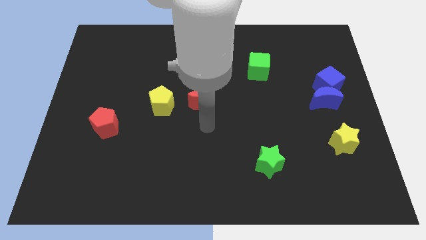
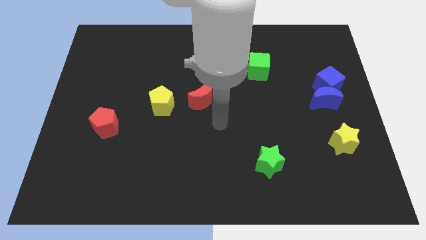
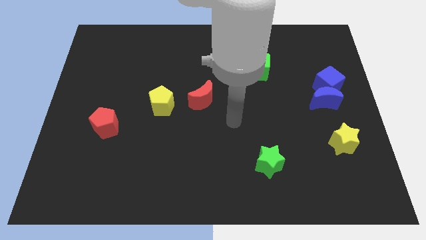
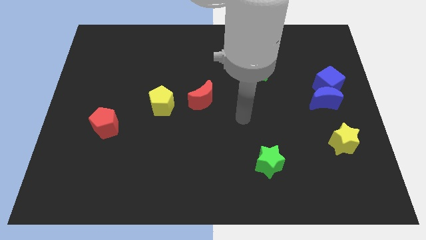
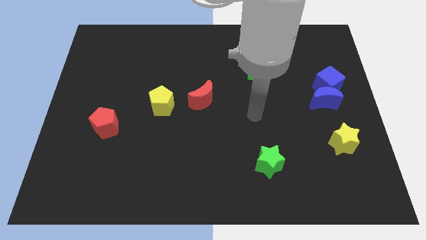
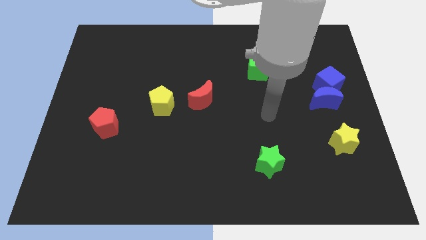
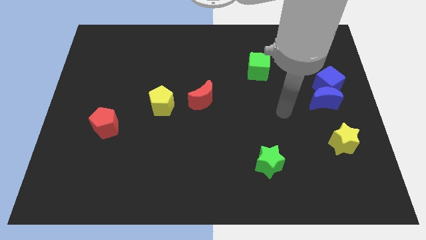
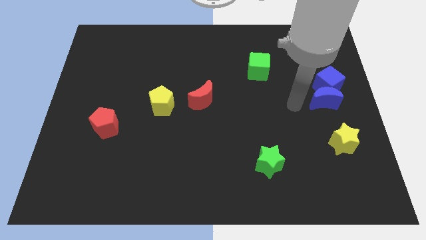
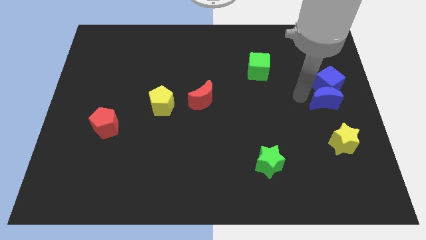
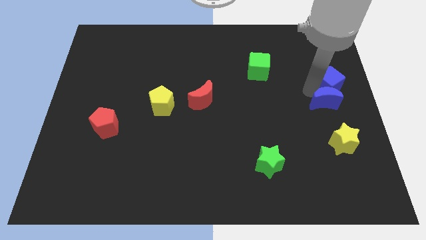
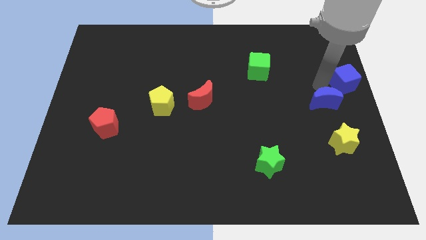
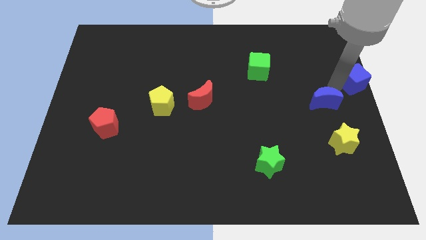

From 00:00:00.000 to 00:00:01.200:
separate the blue moon from the blue cube

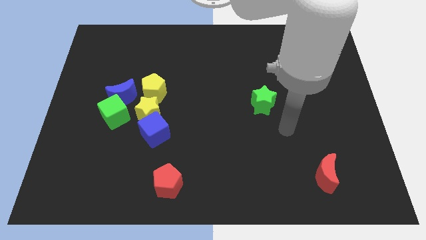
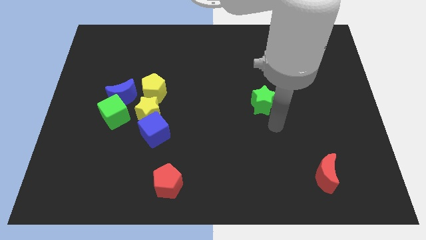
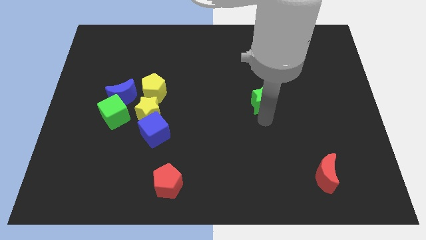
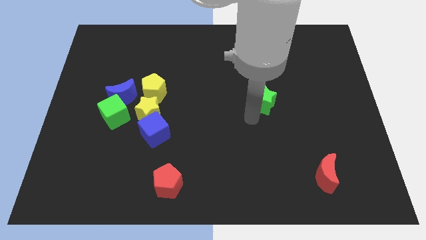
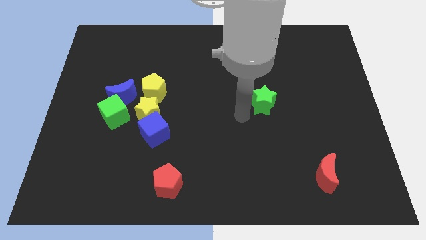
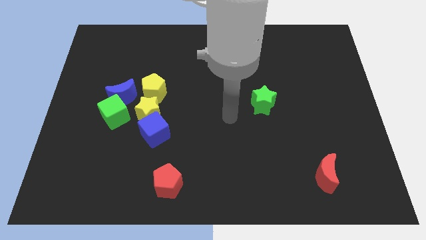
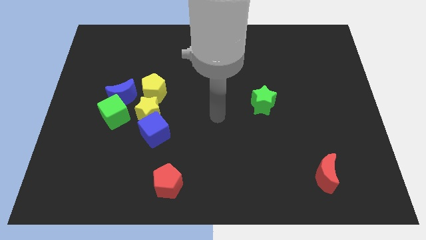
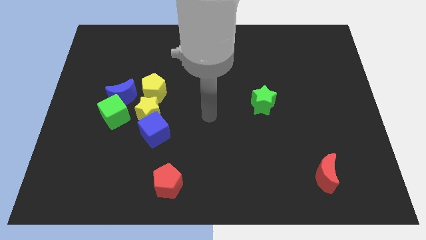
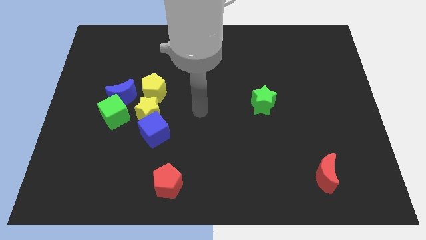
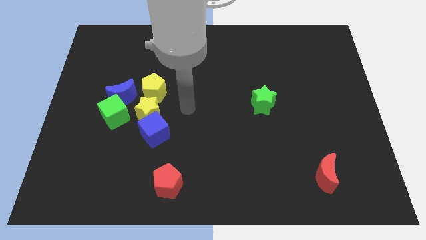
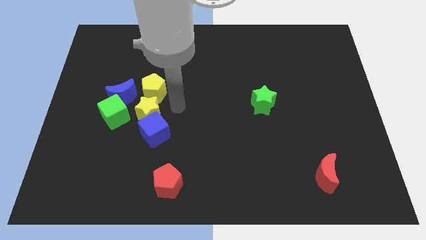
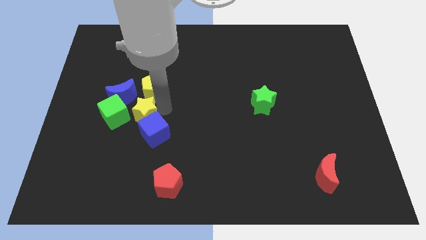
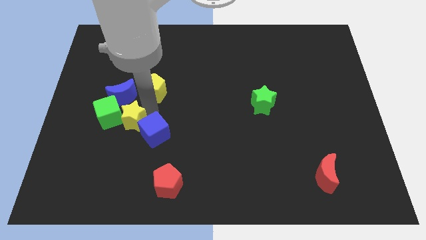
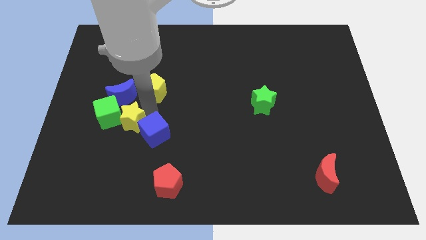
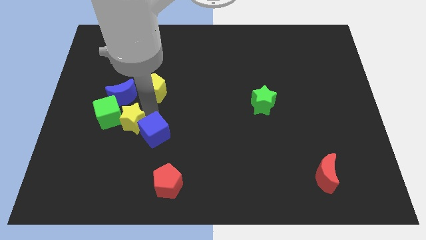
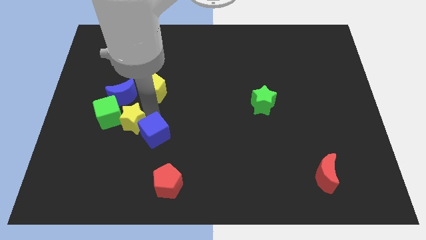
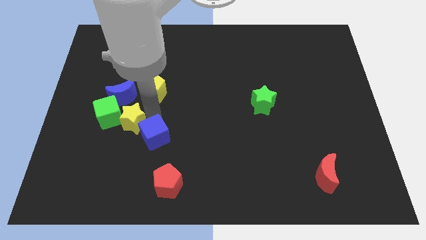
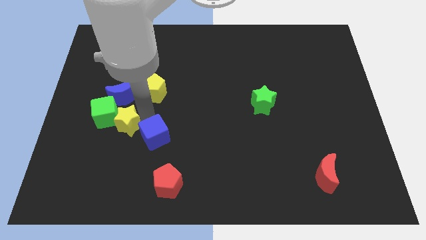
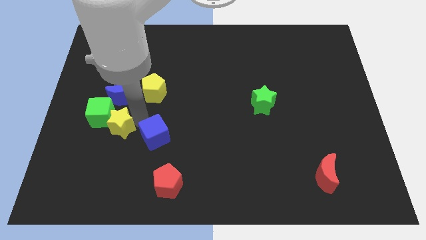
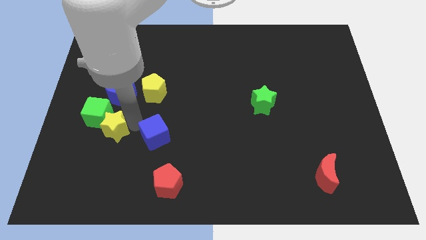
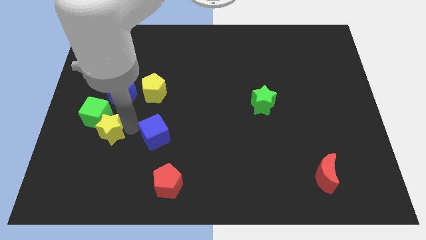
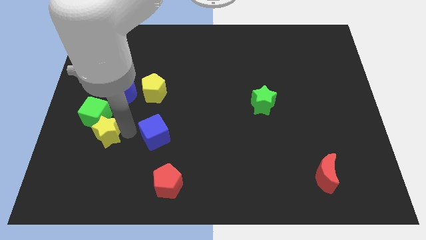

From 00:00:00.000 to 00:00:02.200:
move the blue cube away from the yellow star

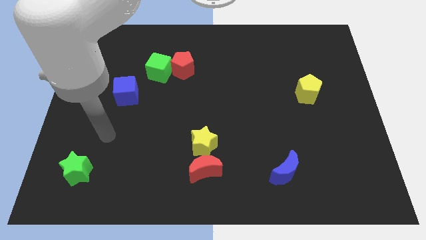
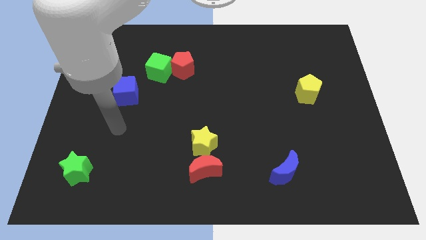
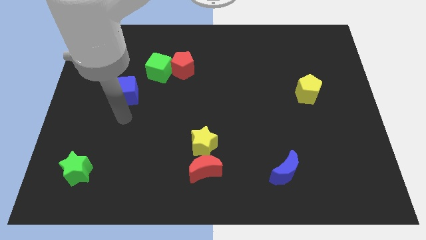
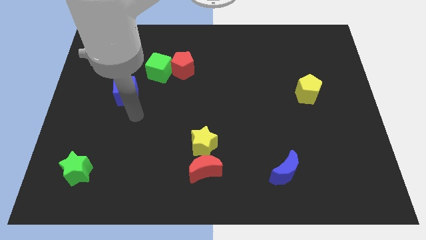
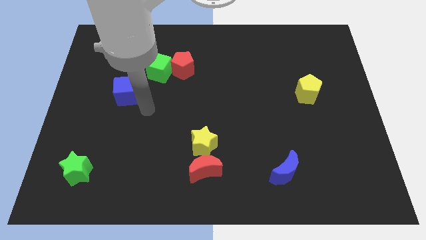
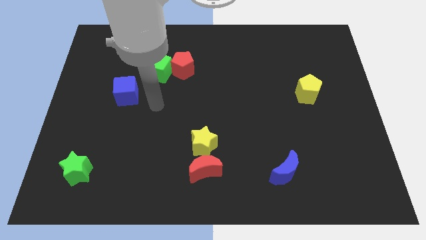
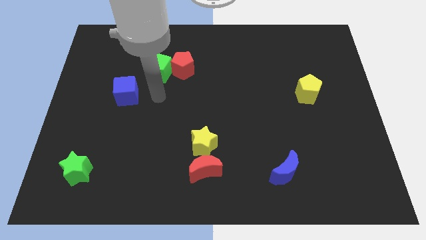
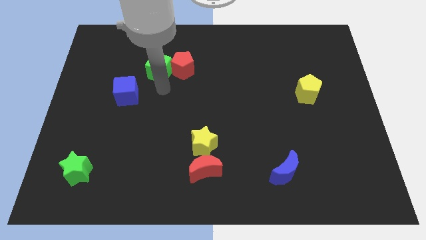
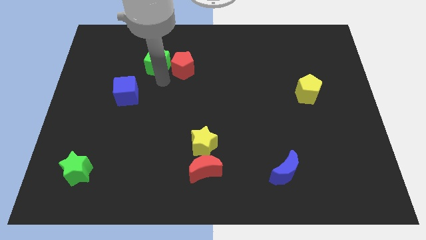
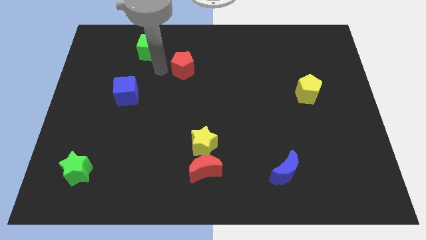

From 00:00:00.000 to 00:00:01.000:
pull the red pentagon apart from the green cube

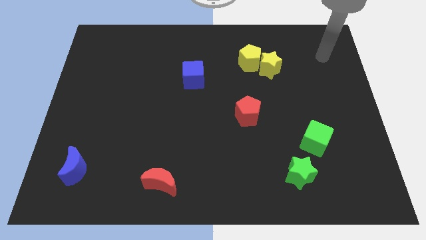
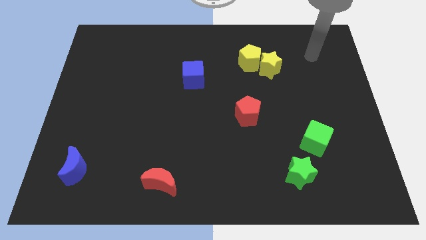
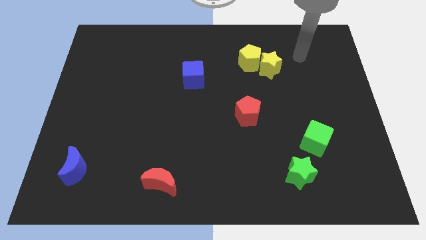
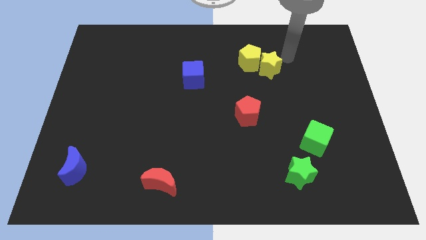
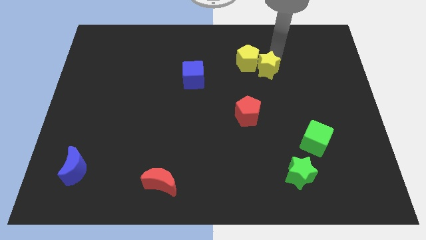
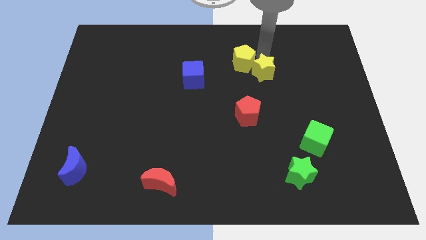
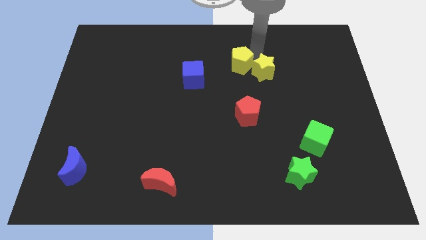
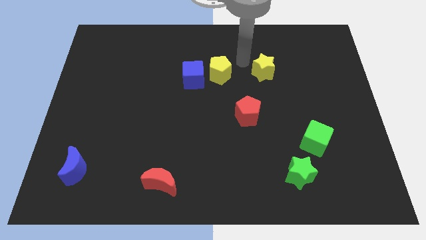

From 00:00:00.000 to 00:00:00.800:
move the yellow star away from the yellow pentagon

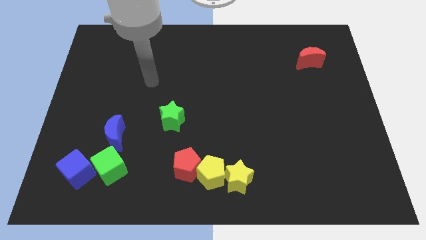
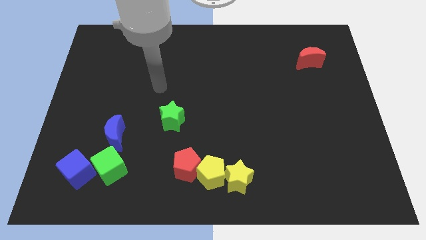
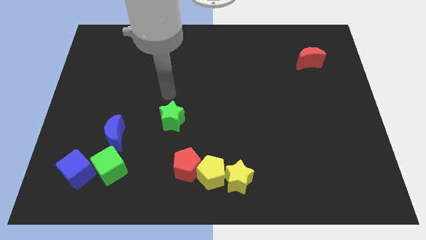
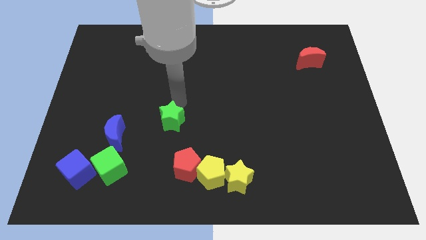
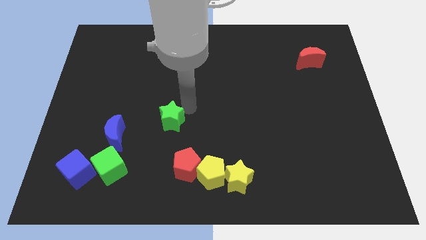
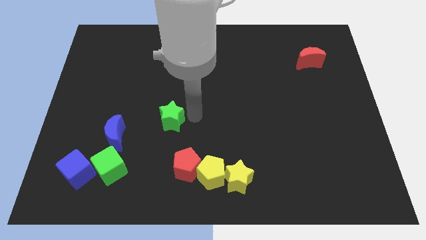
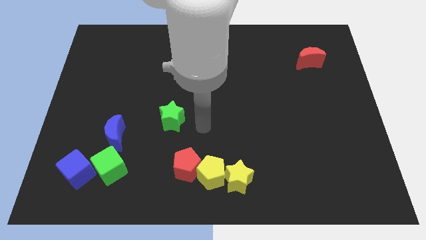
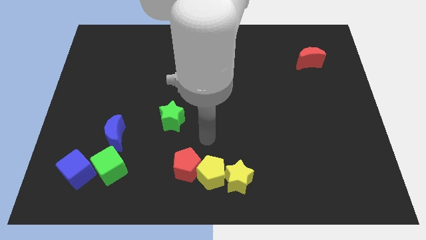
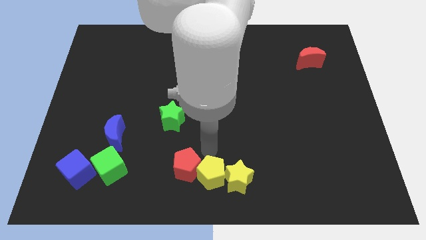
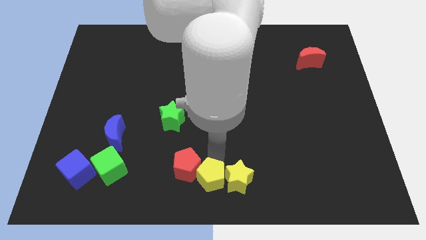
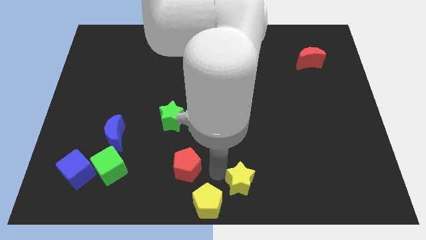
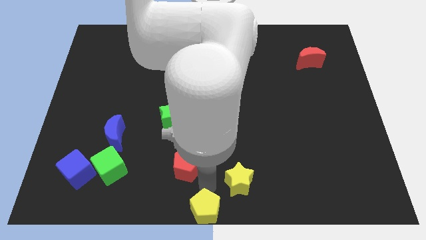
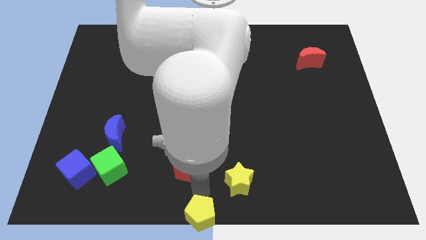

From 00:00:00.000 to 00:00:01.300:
separate the red pentagon from the yellow pentagon

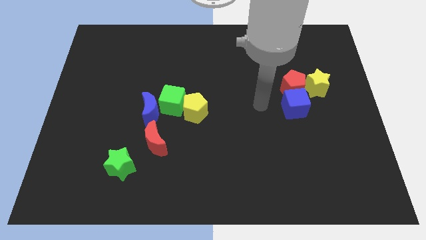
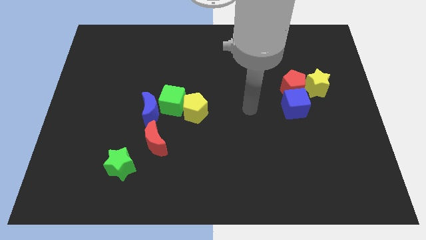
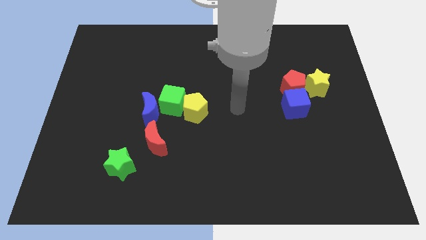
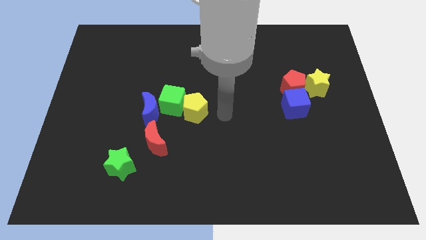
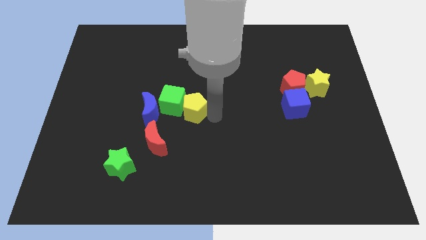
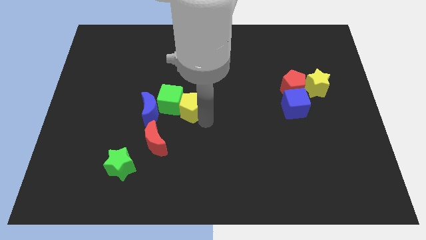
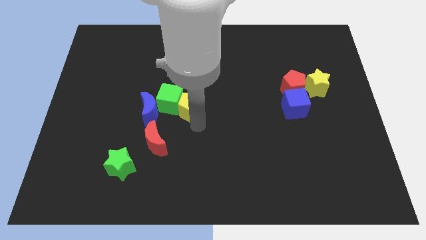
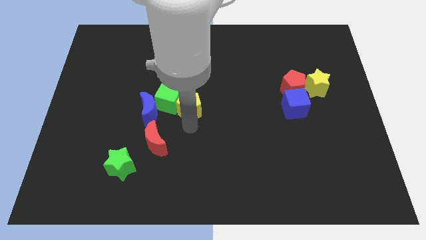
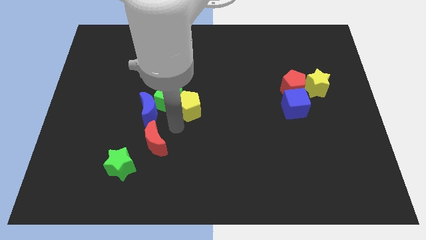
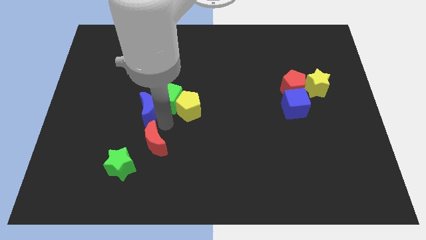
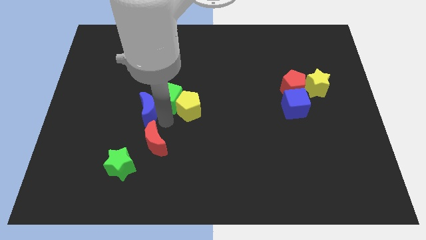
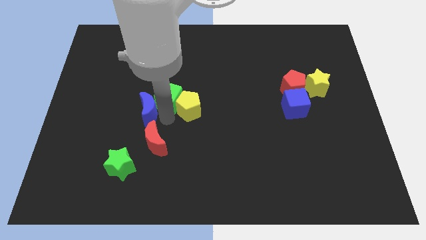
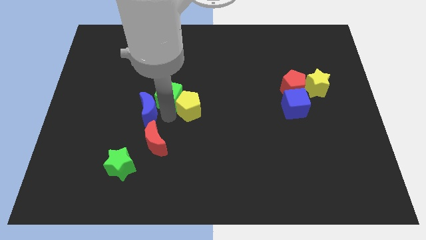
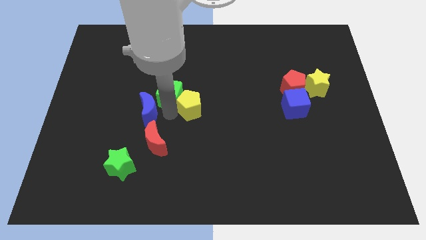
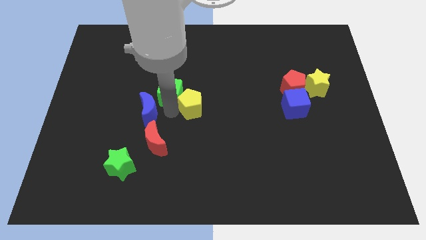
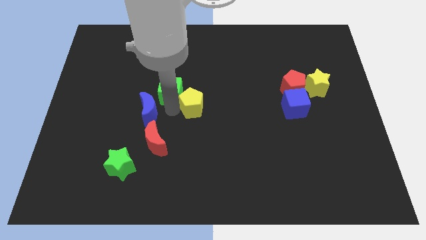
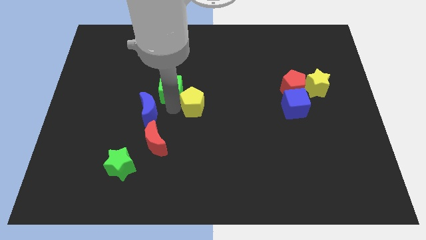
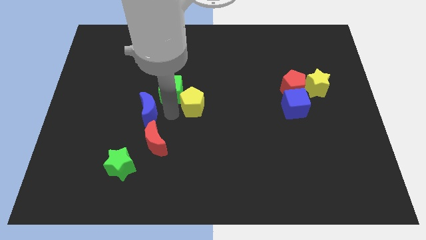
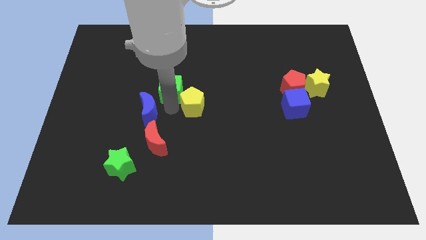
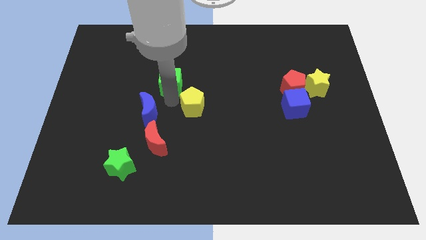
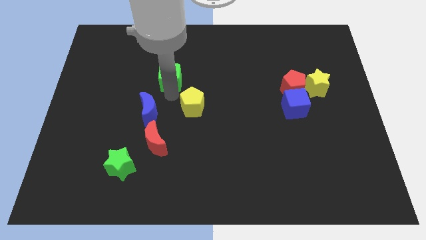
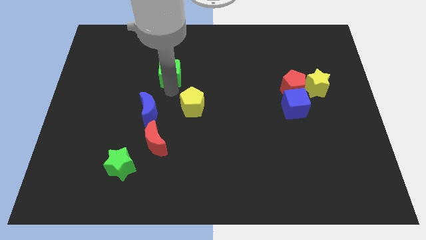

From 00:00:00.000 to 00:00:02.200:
separate the green cube from the blue moon and yellow pentagon

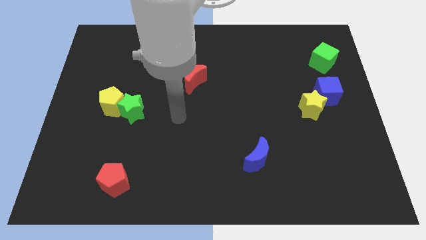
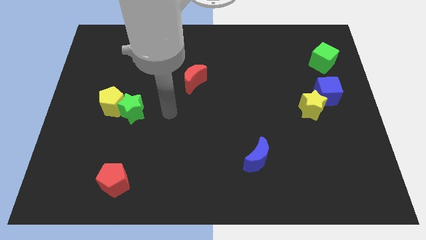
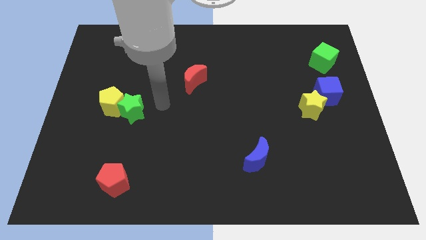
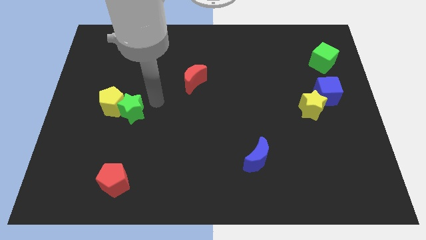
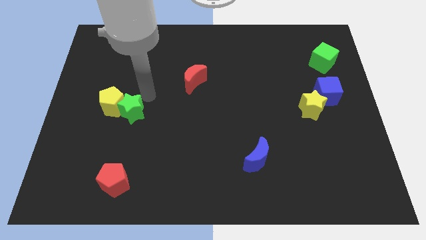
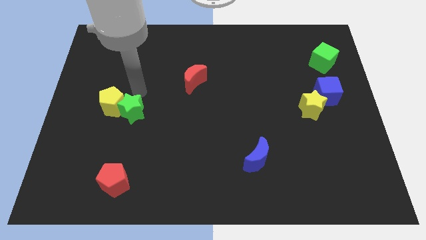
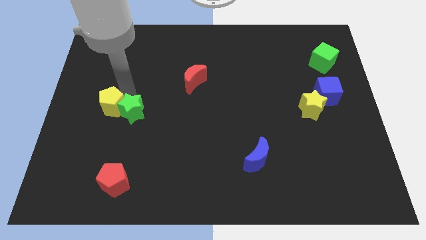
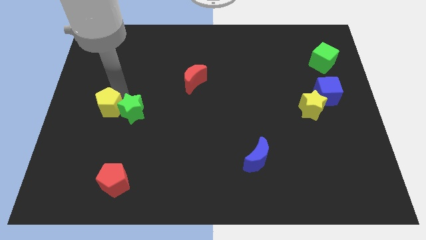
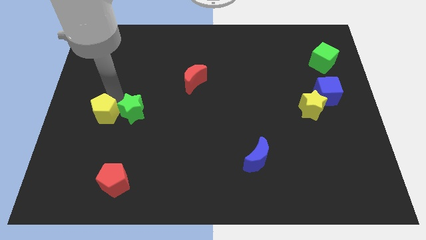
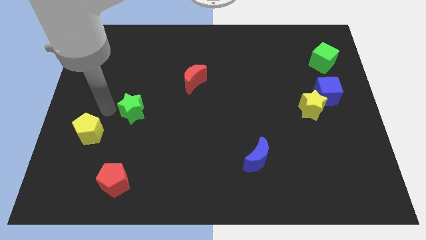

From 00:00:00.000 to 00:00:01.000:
separate the green star from the yellow pentagon
